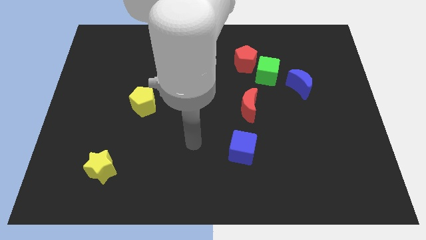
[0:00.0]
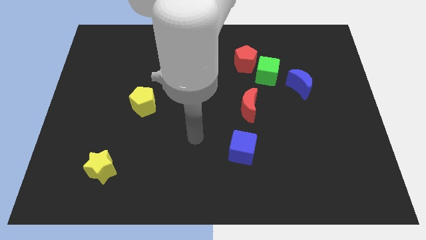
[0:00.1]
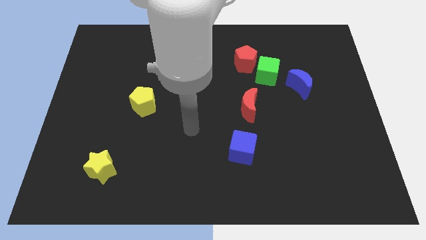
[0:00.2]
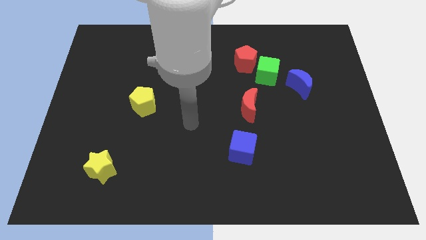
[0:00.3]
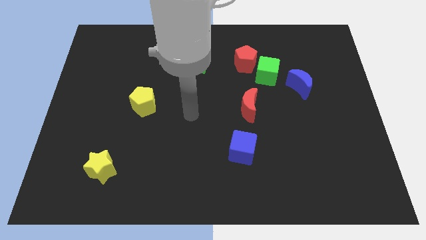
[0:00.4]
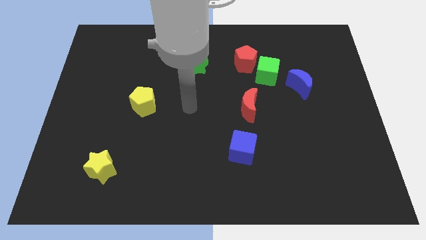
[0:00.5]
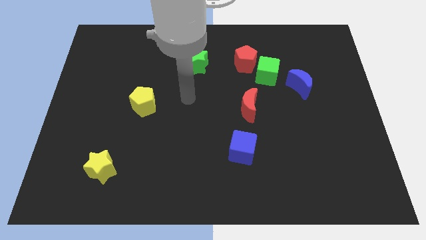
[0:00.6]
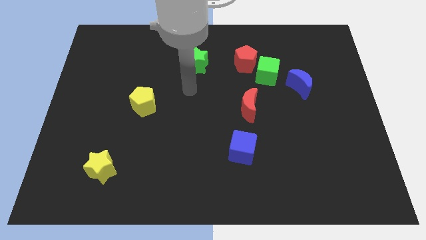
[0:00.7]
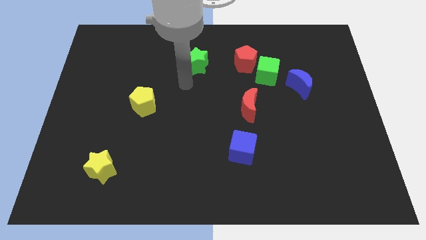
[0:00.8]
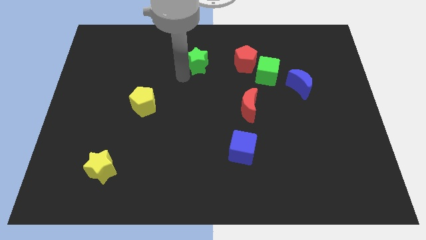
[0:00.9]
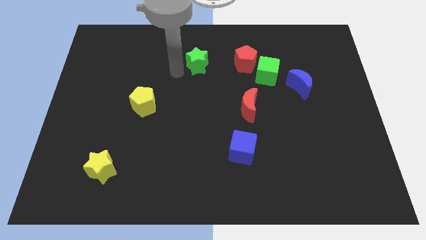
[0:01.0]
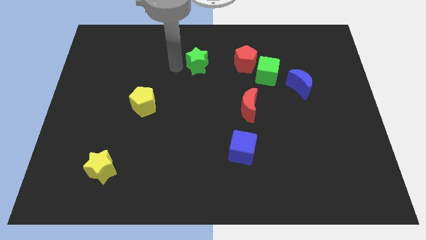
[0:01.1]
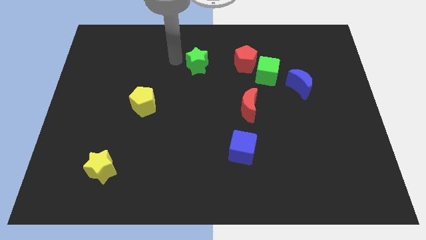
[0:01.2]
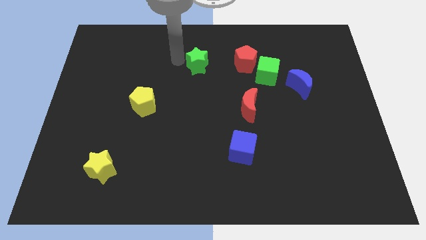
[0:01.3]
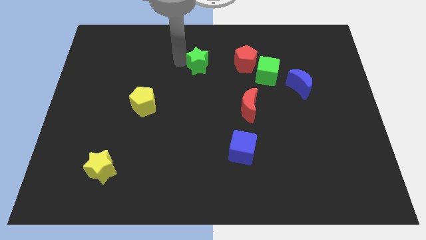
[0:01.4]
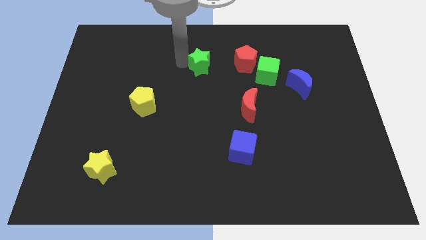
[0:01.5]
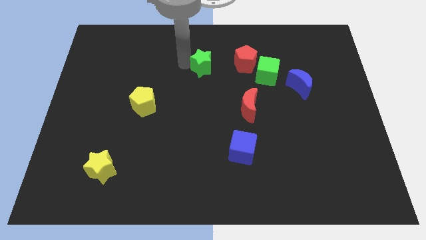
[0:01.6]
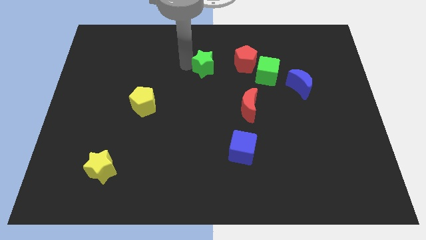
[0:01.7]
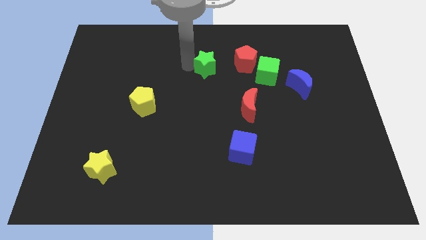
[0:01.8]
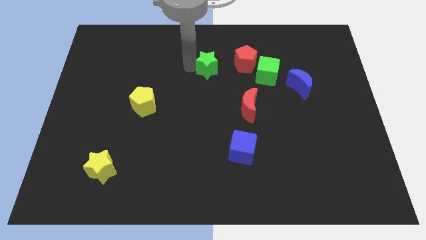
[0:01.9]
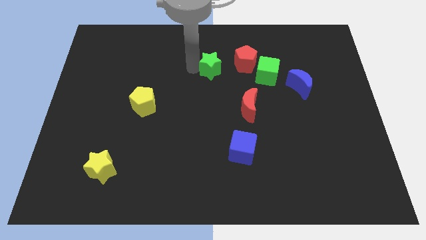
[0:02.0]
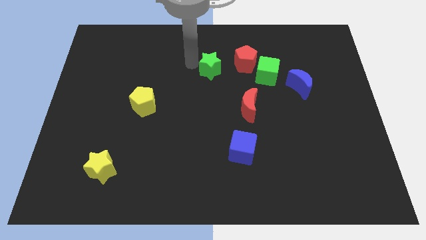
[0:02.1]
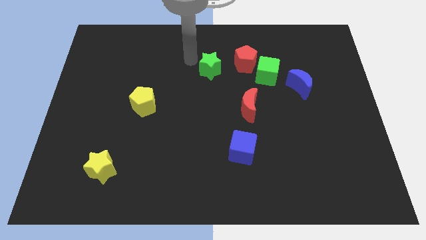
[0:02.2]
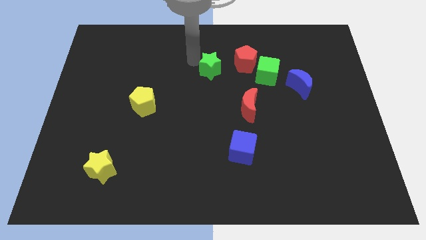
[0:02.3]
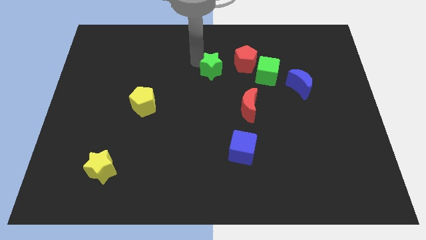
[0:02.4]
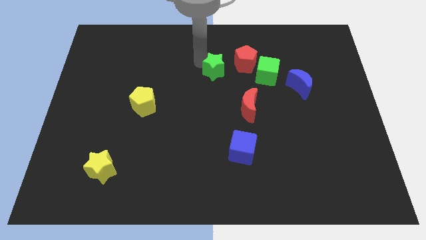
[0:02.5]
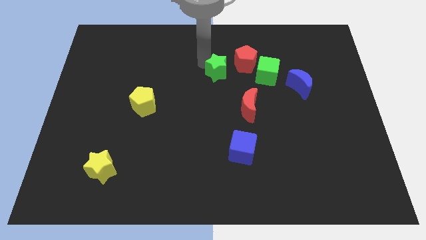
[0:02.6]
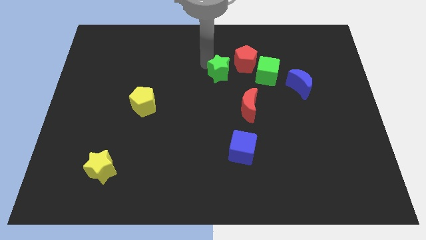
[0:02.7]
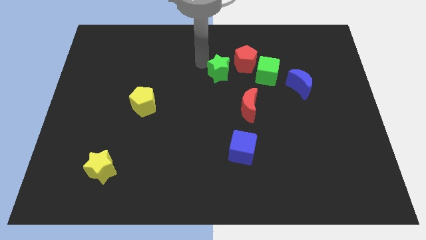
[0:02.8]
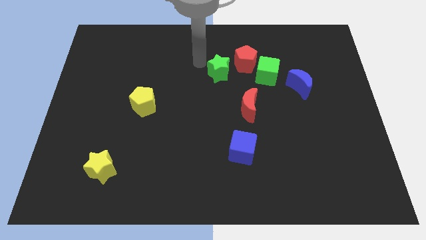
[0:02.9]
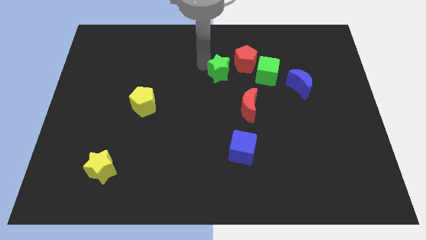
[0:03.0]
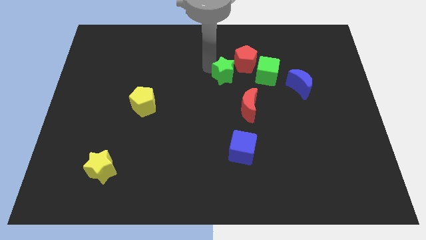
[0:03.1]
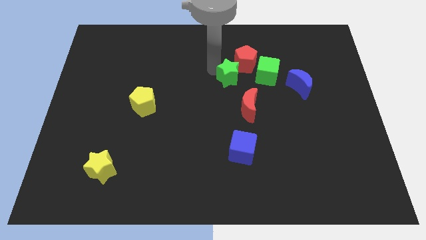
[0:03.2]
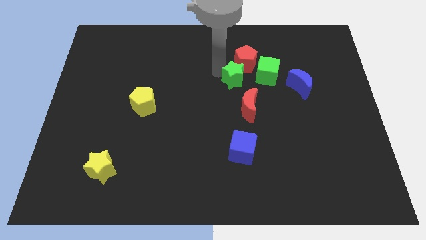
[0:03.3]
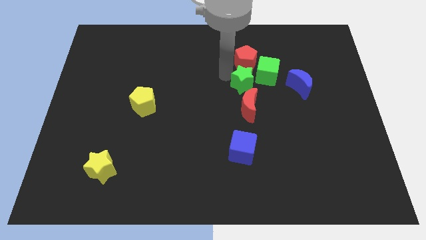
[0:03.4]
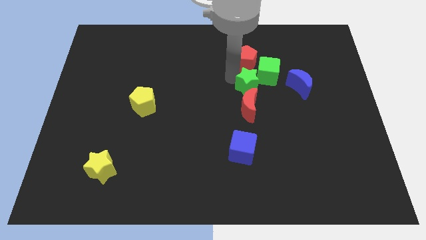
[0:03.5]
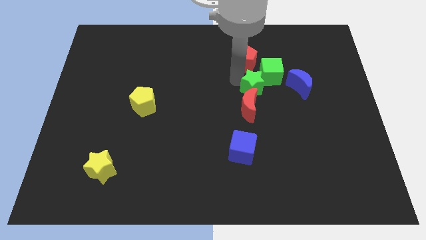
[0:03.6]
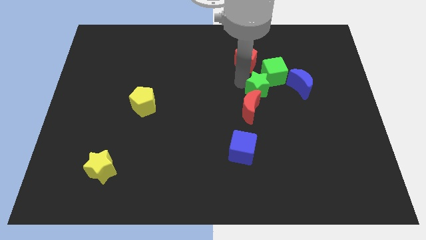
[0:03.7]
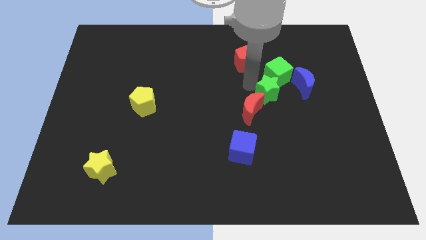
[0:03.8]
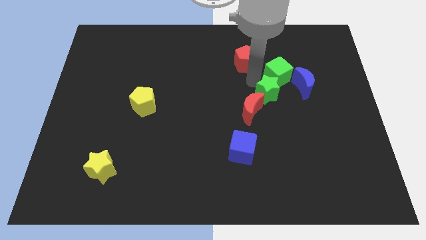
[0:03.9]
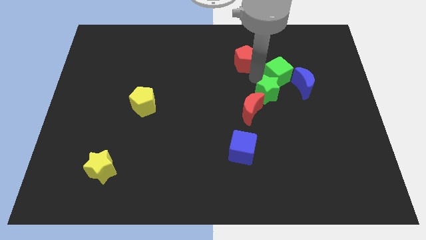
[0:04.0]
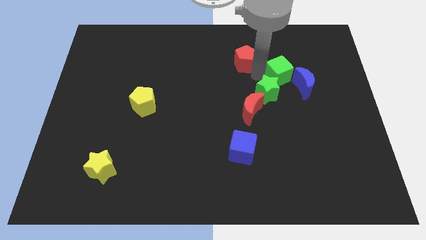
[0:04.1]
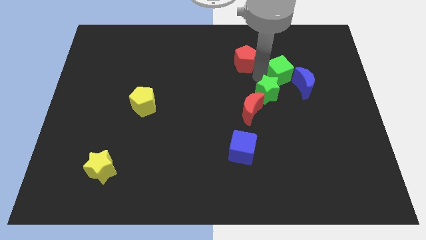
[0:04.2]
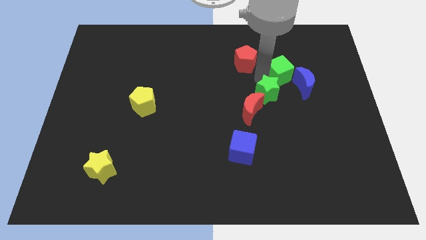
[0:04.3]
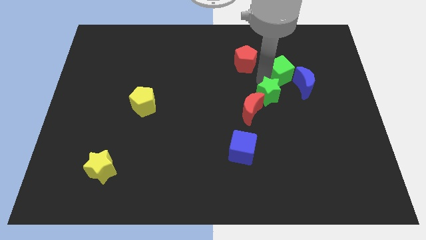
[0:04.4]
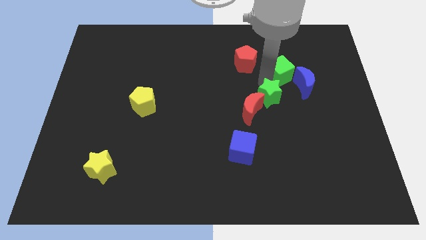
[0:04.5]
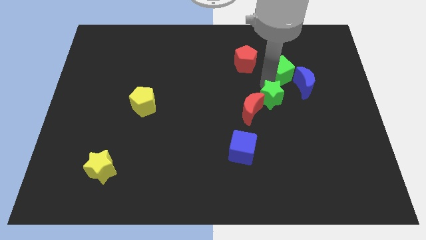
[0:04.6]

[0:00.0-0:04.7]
move the green star down and to the right

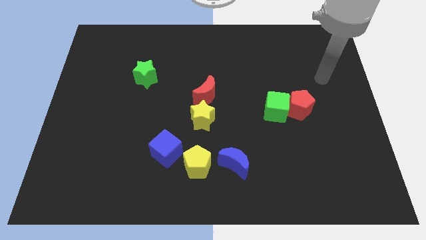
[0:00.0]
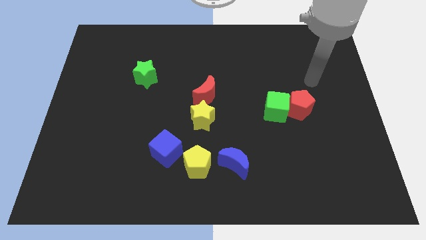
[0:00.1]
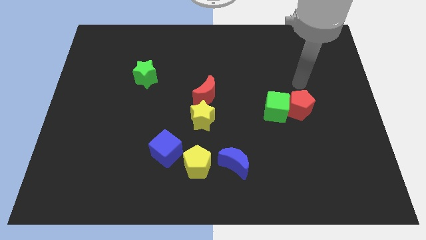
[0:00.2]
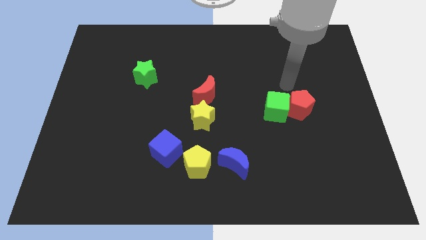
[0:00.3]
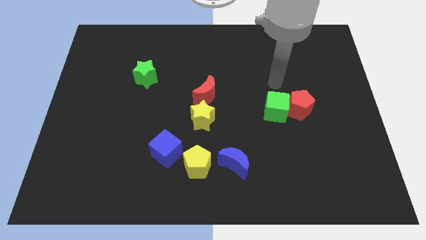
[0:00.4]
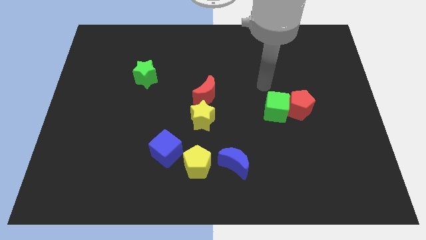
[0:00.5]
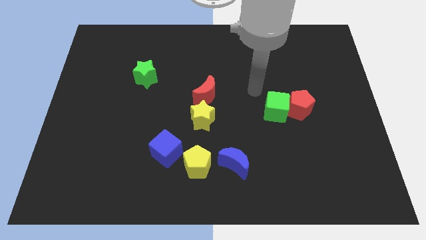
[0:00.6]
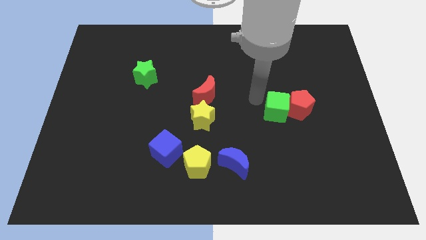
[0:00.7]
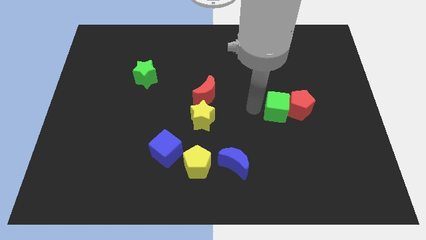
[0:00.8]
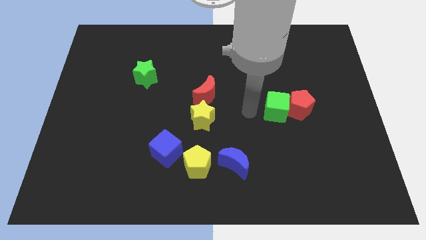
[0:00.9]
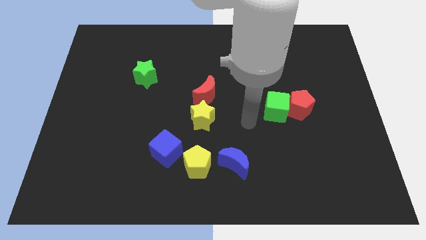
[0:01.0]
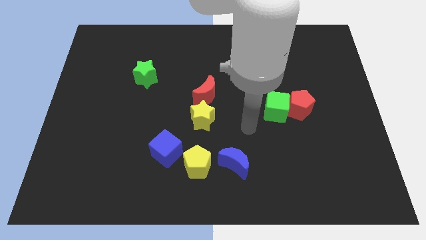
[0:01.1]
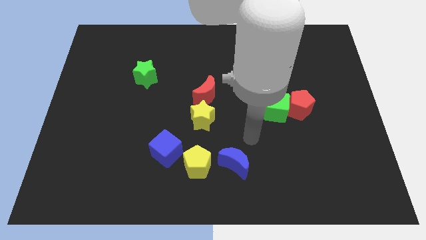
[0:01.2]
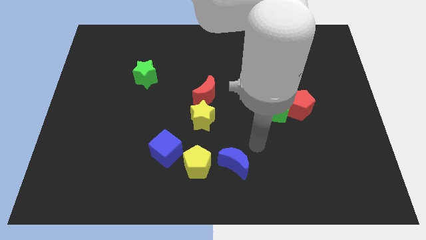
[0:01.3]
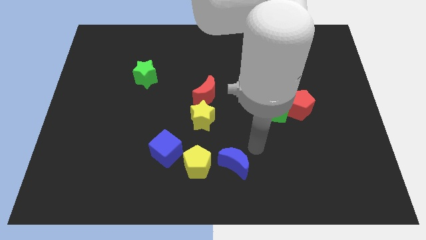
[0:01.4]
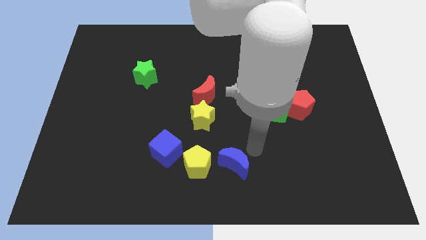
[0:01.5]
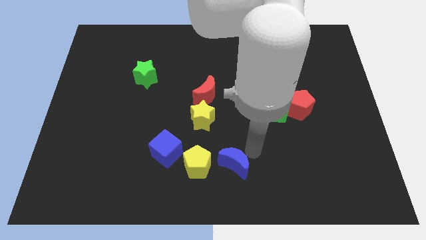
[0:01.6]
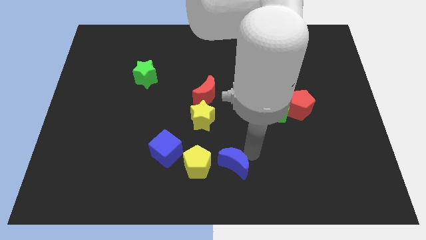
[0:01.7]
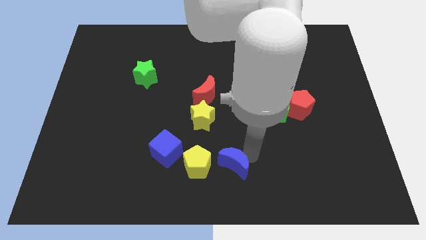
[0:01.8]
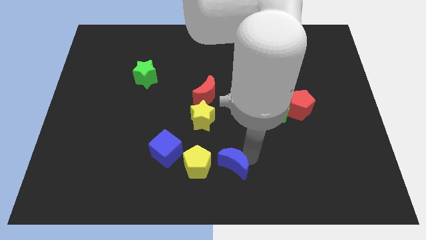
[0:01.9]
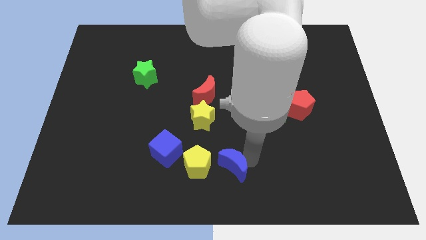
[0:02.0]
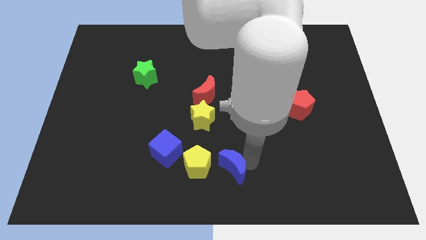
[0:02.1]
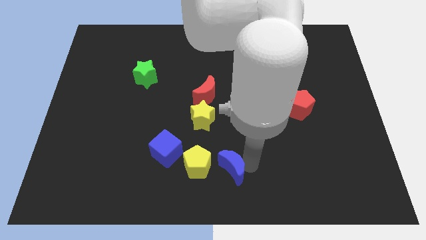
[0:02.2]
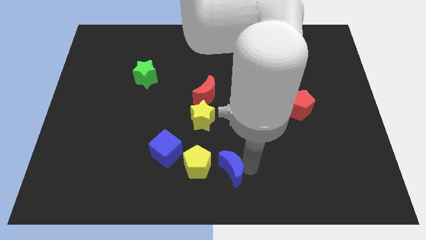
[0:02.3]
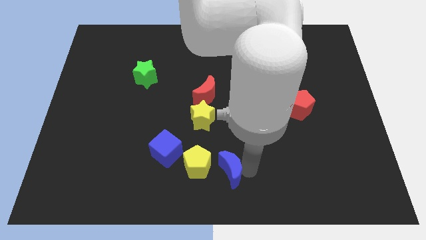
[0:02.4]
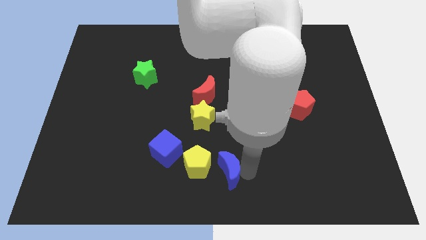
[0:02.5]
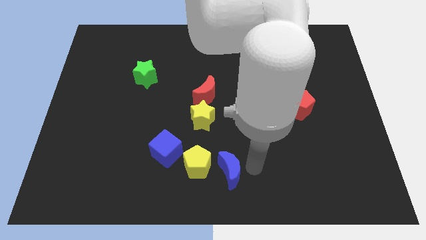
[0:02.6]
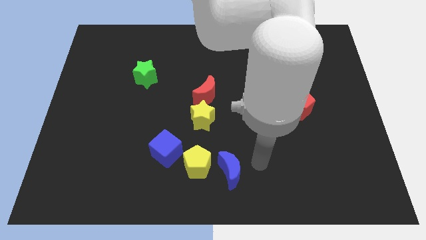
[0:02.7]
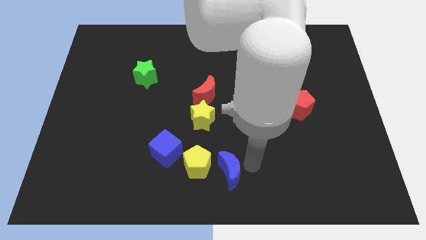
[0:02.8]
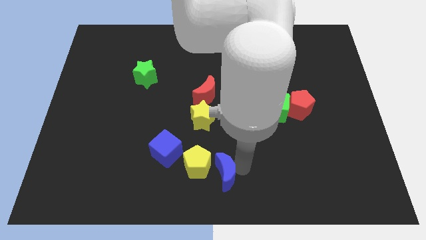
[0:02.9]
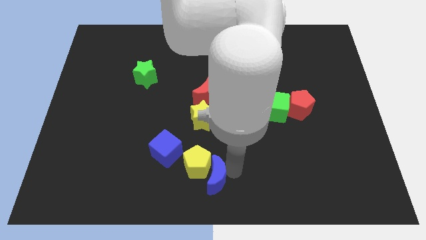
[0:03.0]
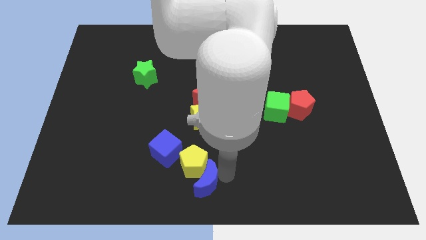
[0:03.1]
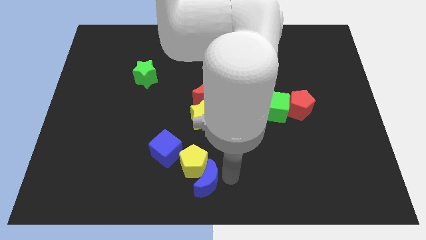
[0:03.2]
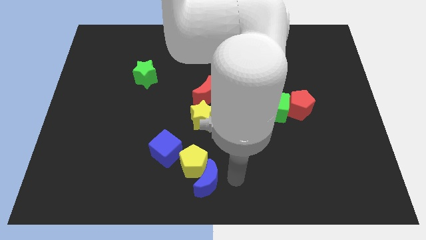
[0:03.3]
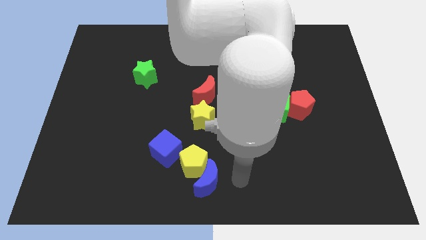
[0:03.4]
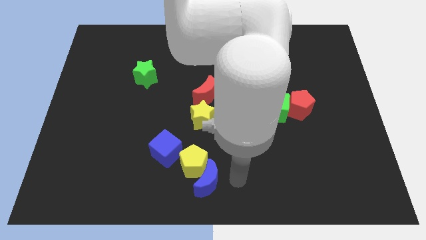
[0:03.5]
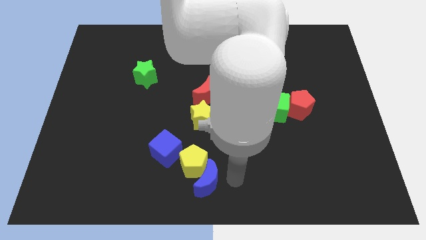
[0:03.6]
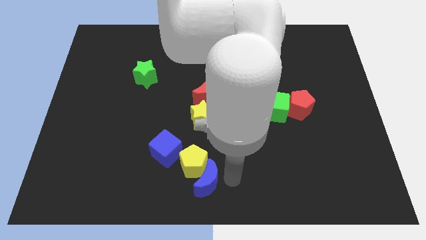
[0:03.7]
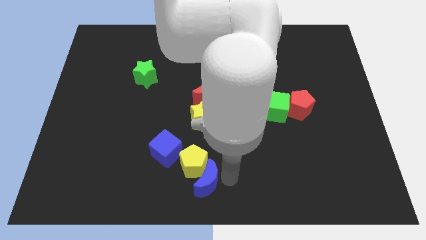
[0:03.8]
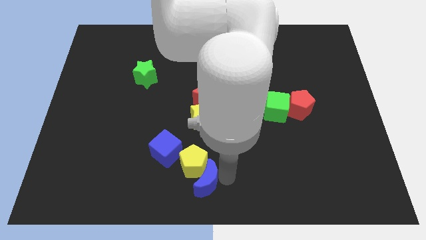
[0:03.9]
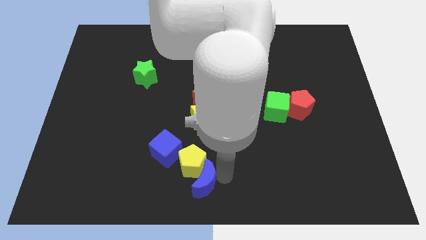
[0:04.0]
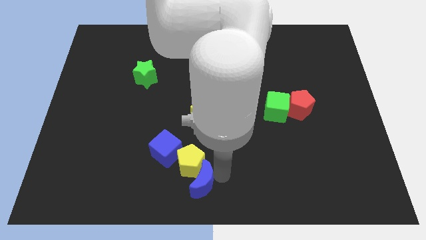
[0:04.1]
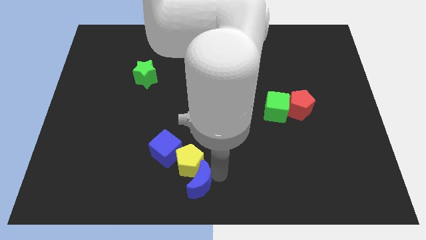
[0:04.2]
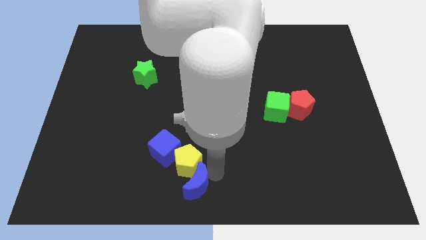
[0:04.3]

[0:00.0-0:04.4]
move the blue moon somewhat to the left
